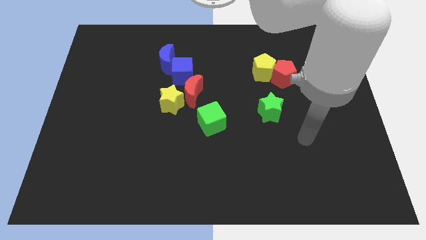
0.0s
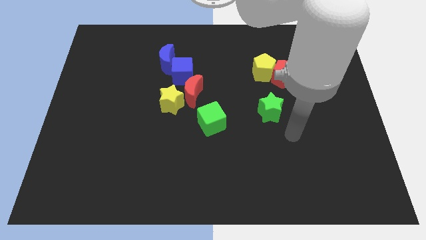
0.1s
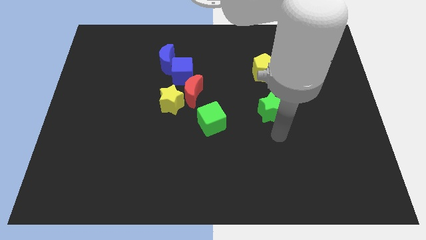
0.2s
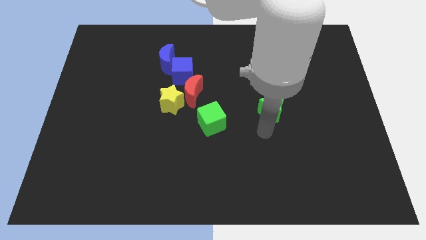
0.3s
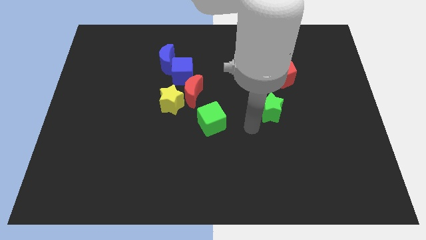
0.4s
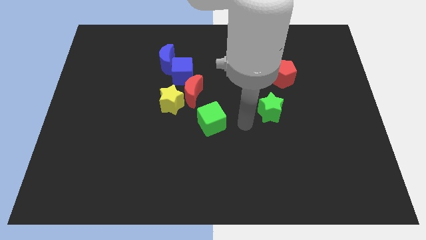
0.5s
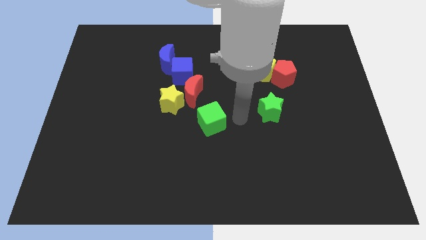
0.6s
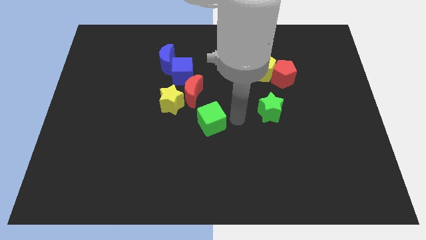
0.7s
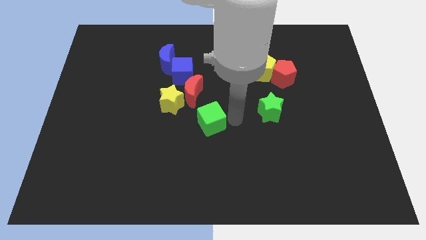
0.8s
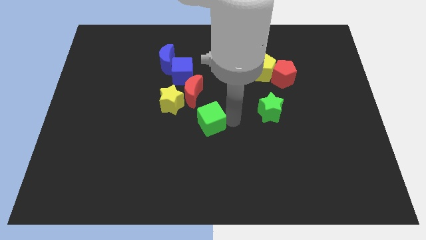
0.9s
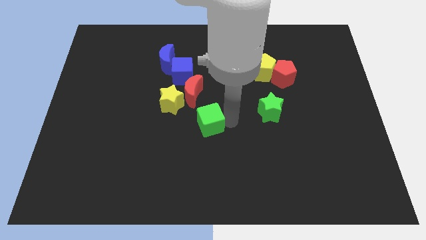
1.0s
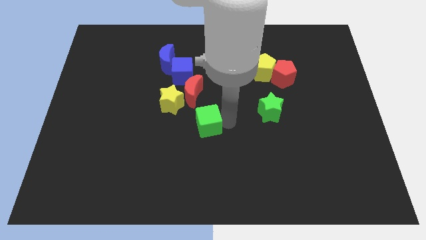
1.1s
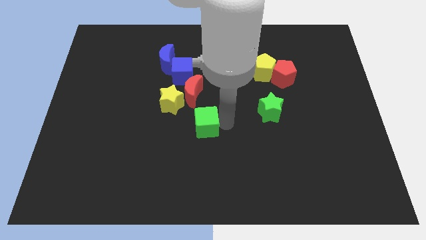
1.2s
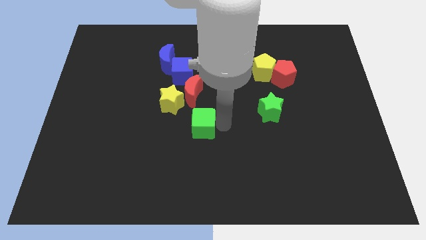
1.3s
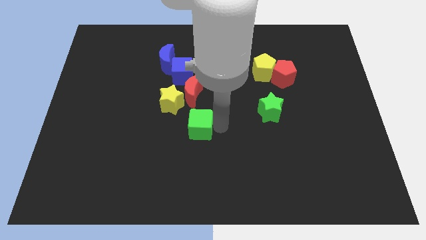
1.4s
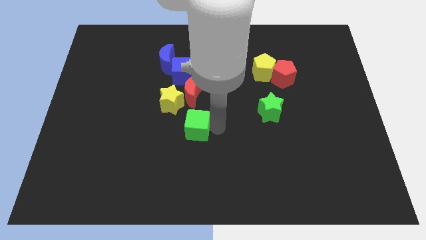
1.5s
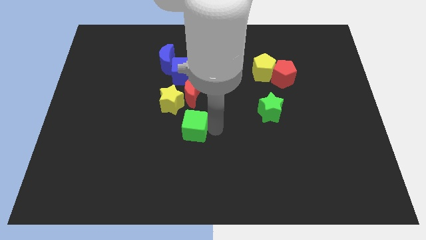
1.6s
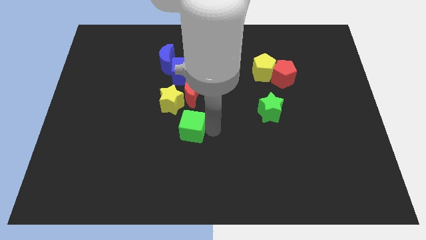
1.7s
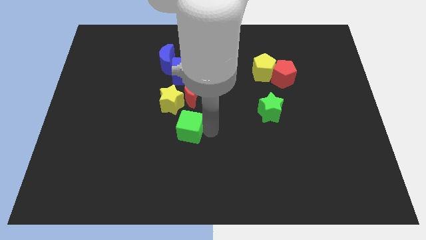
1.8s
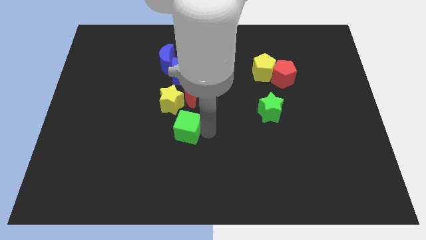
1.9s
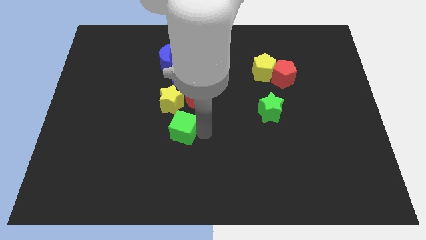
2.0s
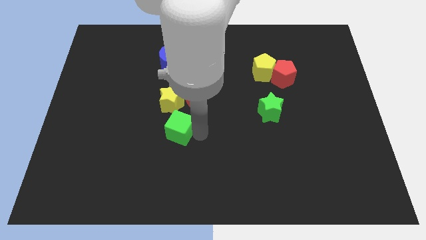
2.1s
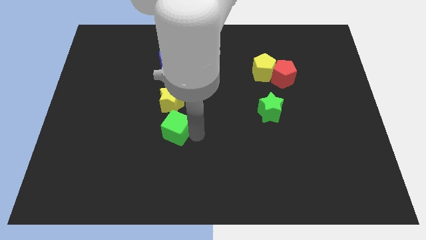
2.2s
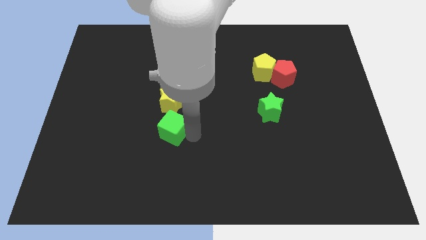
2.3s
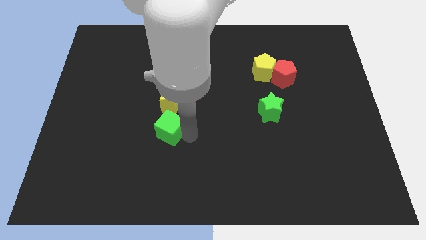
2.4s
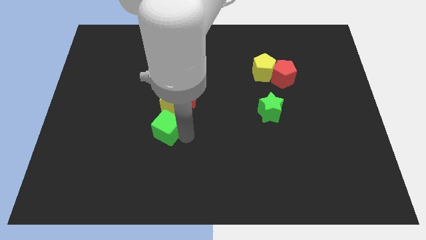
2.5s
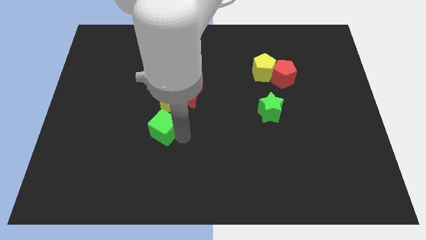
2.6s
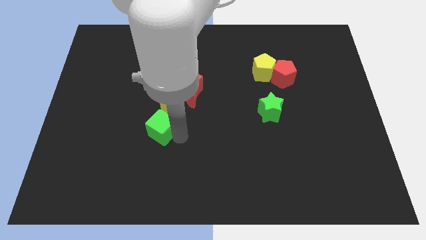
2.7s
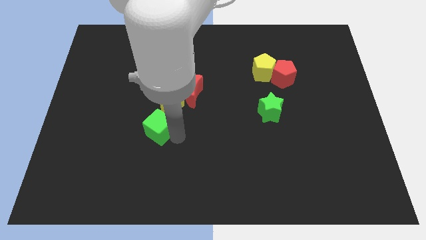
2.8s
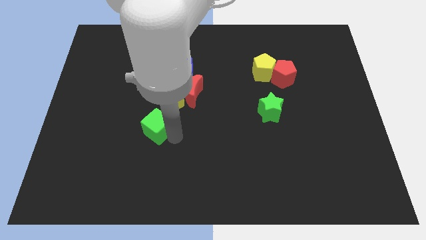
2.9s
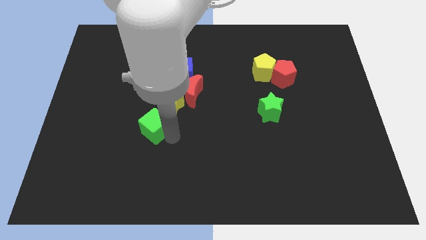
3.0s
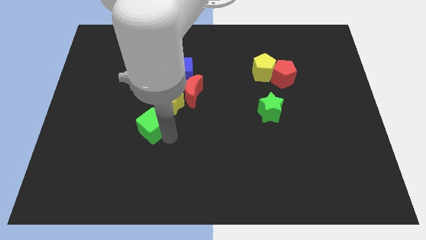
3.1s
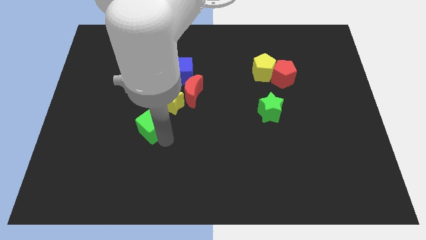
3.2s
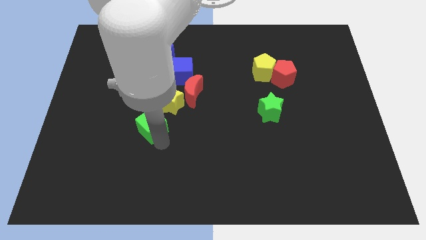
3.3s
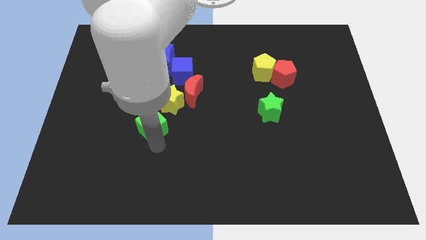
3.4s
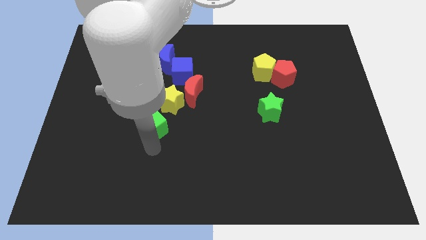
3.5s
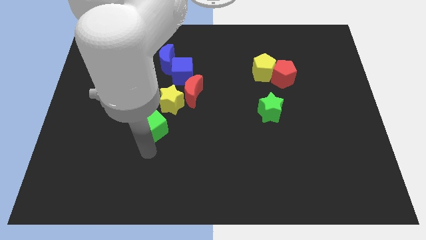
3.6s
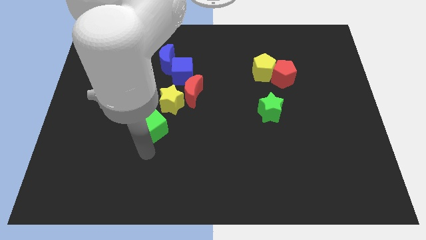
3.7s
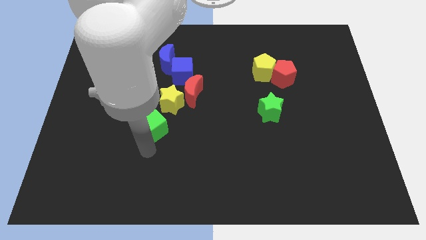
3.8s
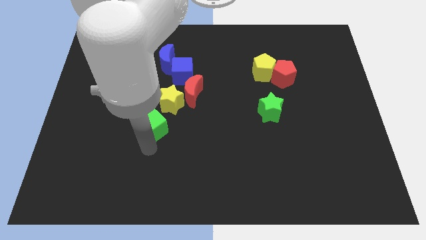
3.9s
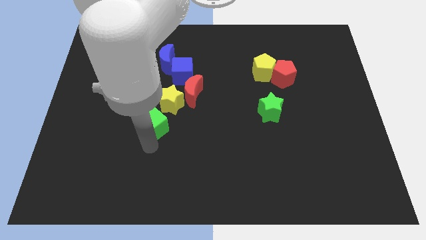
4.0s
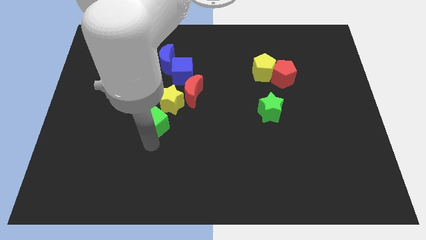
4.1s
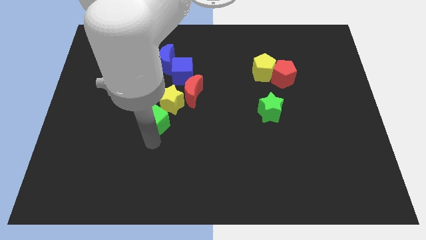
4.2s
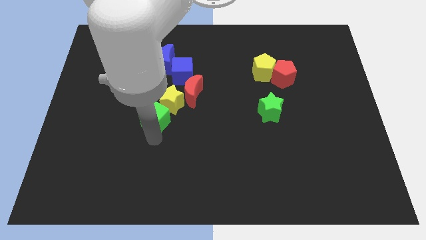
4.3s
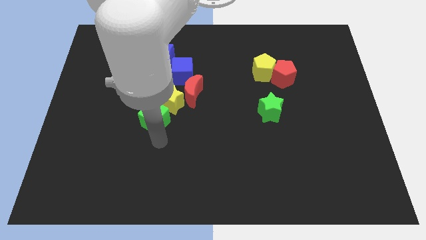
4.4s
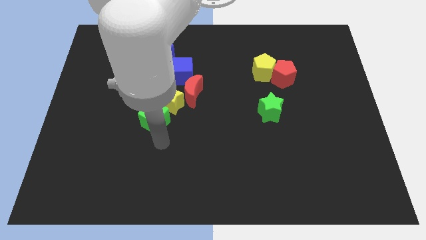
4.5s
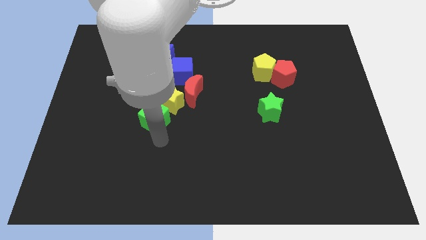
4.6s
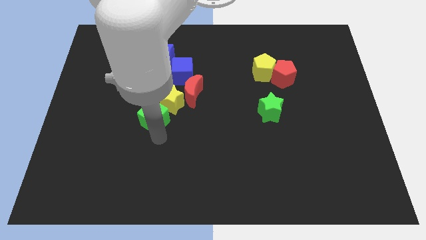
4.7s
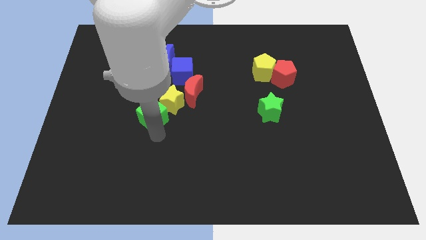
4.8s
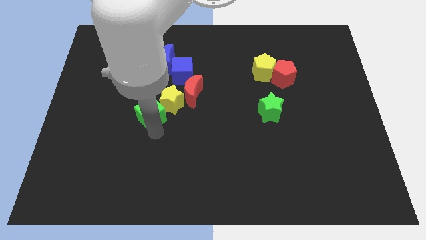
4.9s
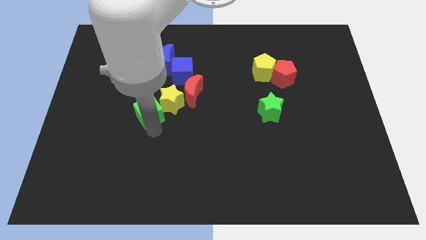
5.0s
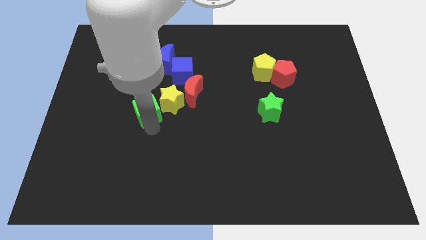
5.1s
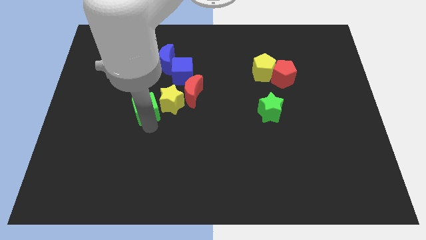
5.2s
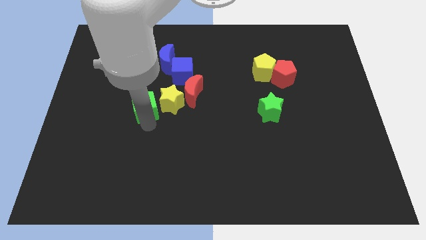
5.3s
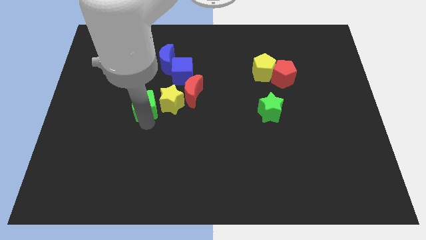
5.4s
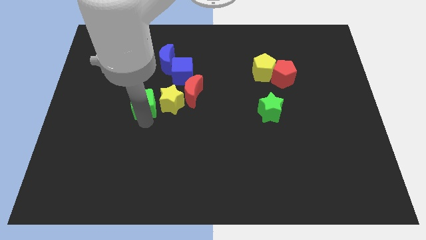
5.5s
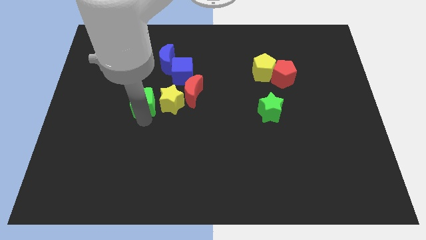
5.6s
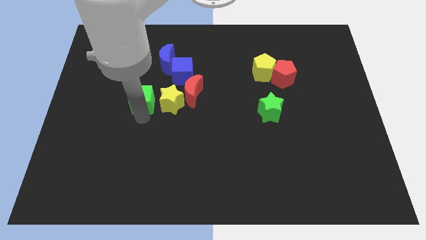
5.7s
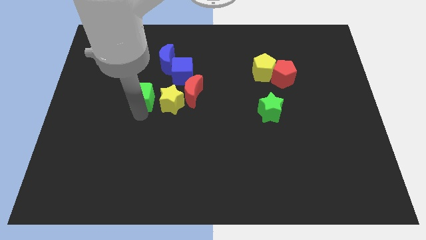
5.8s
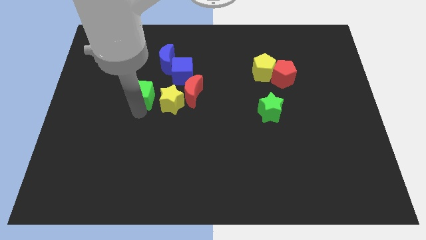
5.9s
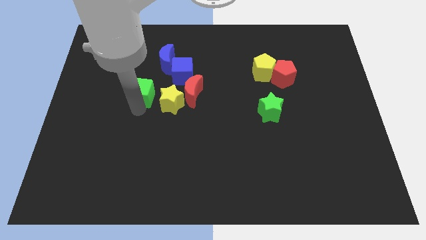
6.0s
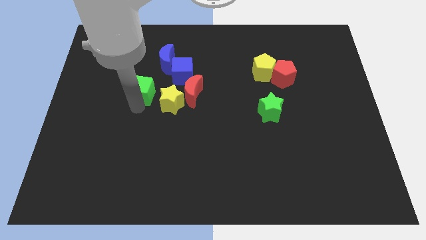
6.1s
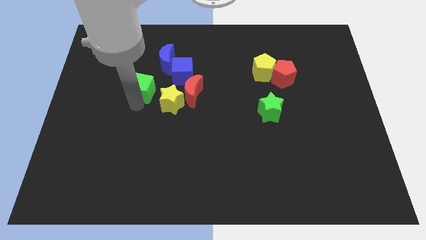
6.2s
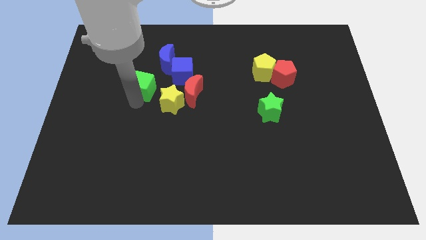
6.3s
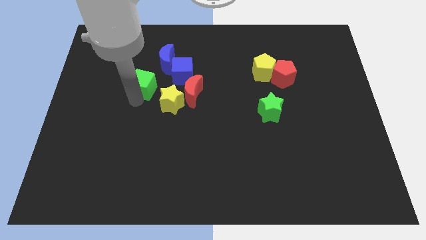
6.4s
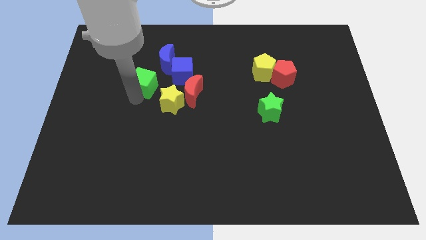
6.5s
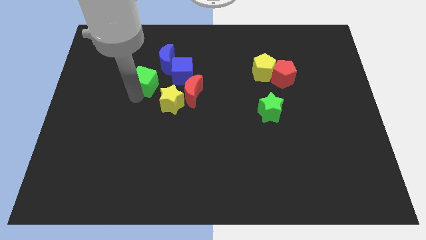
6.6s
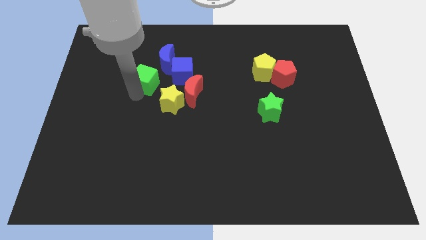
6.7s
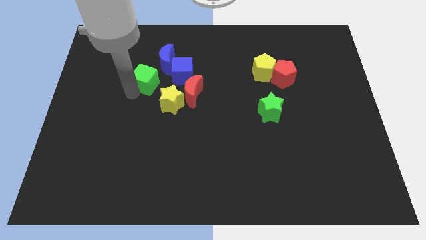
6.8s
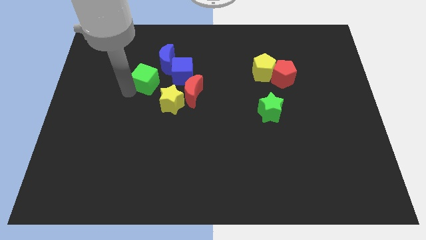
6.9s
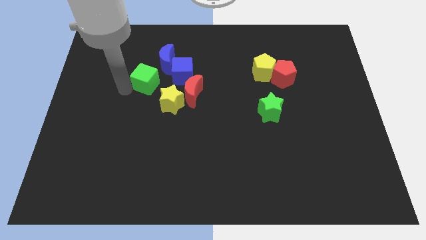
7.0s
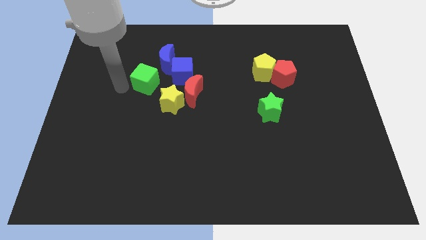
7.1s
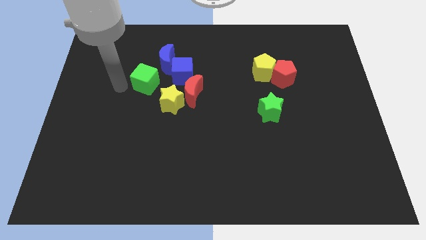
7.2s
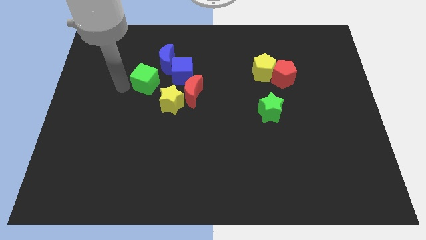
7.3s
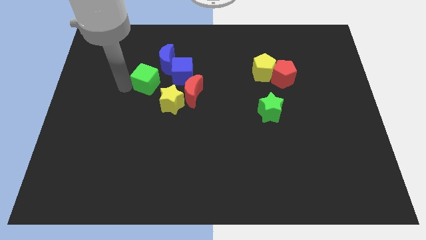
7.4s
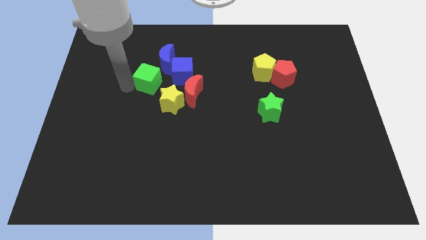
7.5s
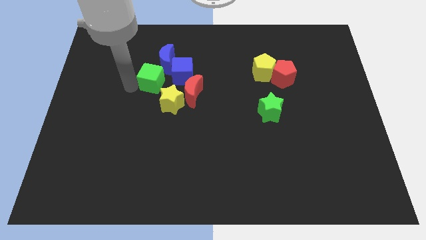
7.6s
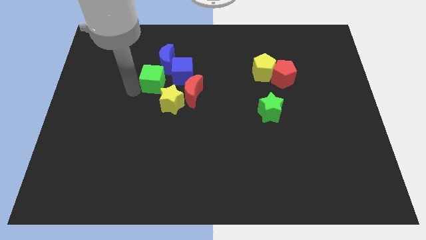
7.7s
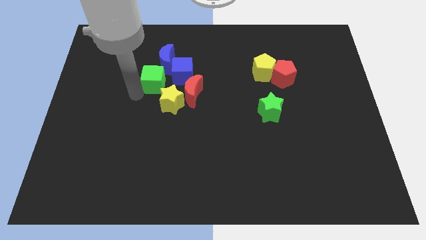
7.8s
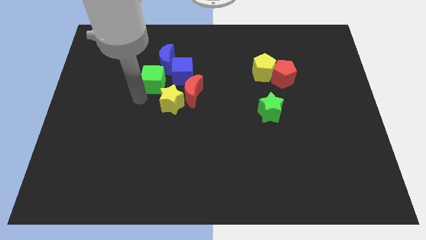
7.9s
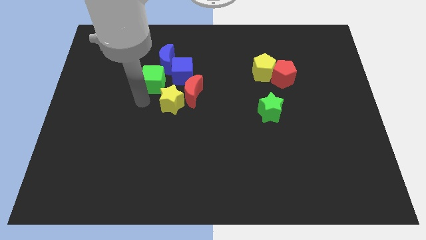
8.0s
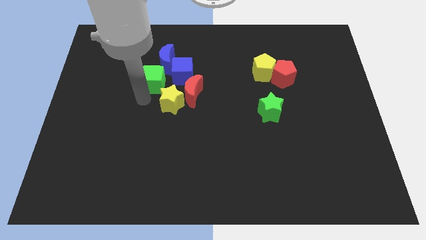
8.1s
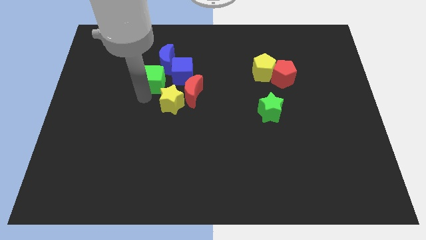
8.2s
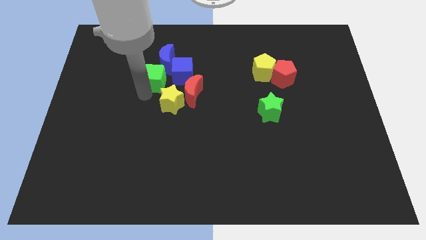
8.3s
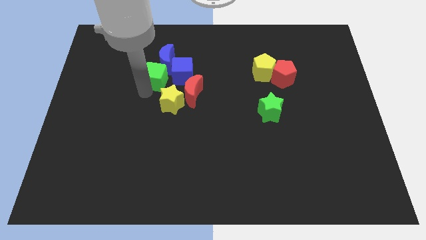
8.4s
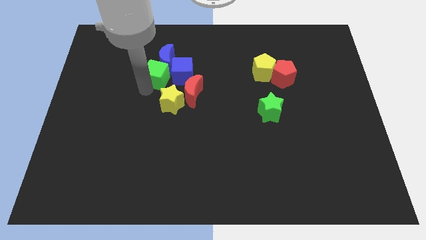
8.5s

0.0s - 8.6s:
slide the green cube towards the blue moon
